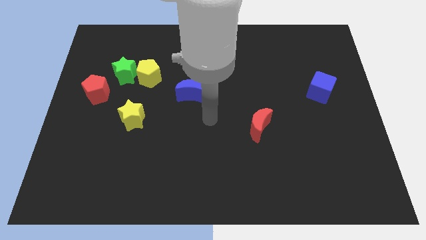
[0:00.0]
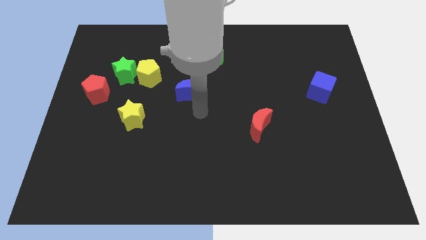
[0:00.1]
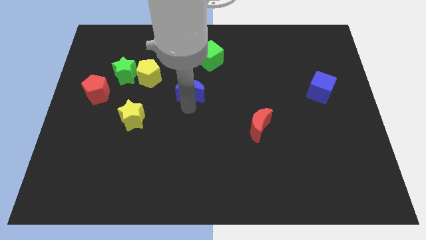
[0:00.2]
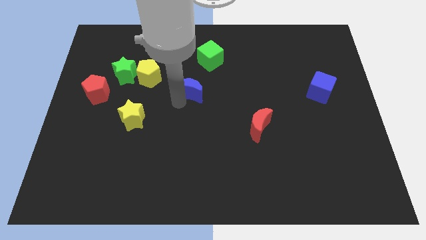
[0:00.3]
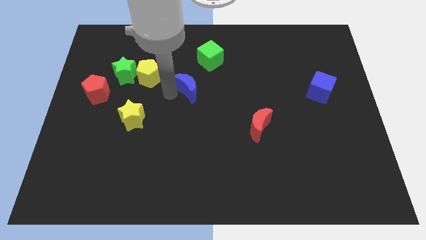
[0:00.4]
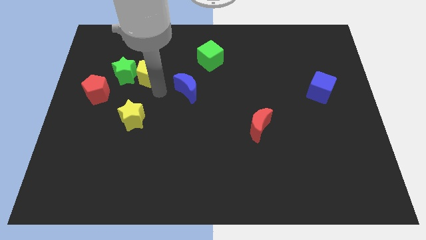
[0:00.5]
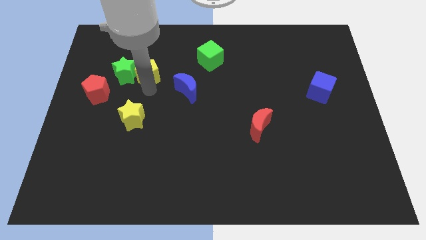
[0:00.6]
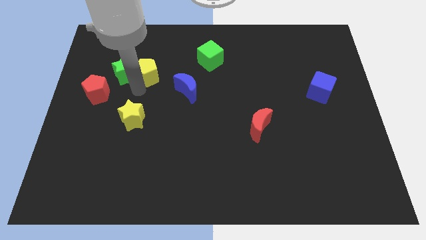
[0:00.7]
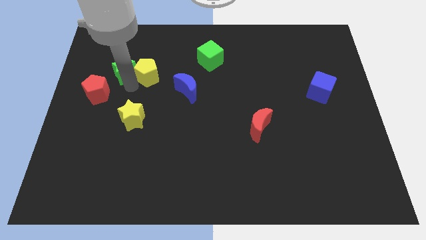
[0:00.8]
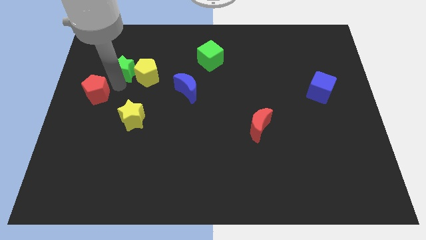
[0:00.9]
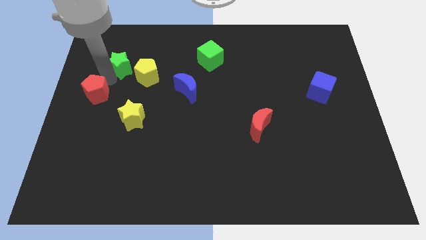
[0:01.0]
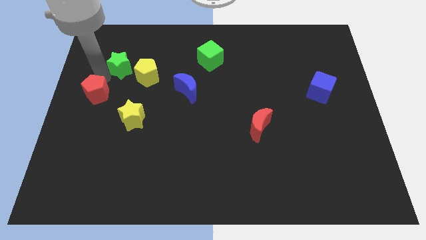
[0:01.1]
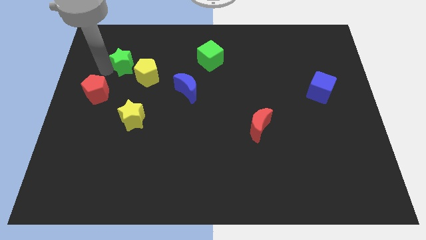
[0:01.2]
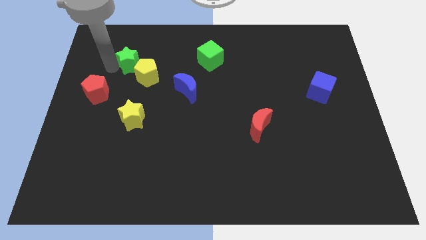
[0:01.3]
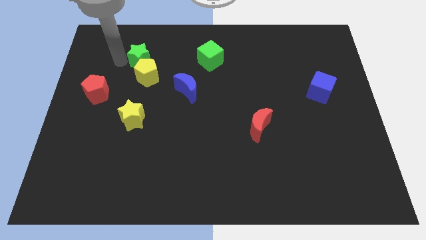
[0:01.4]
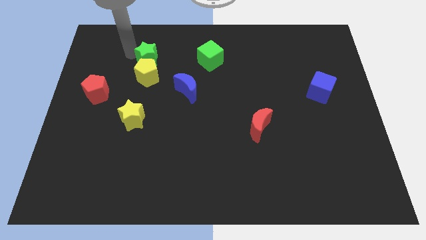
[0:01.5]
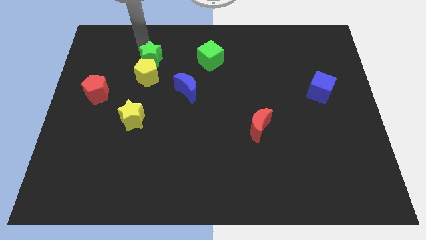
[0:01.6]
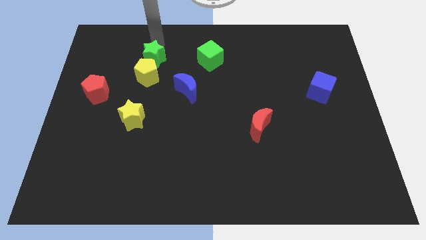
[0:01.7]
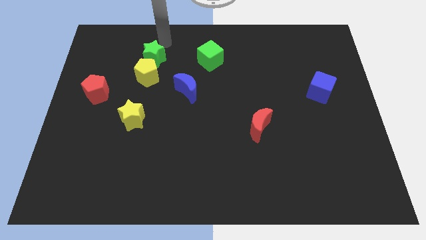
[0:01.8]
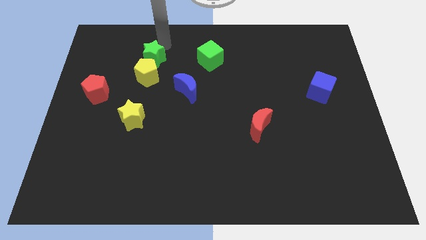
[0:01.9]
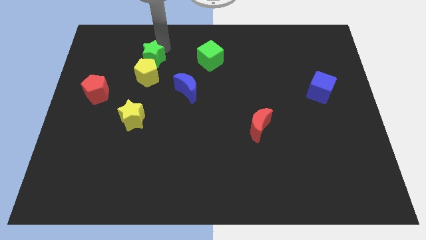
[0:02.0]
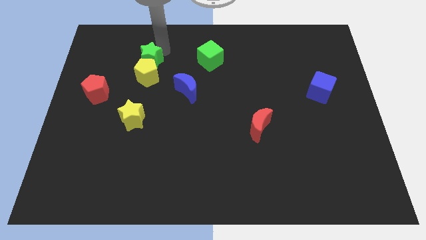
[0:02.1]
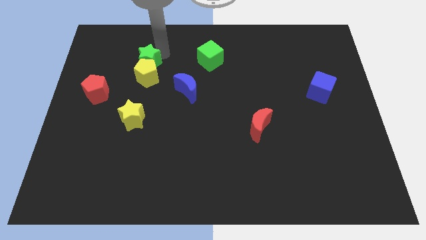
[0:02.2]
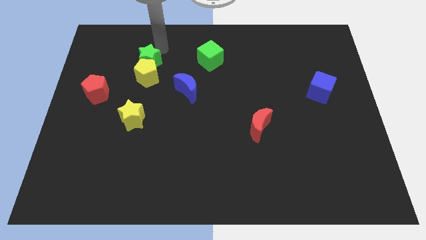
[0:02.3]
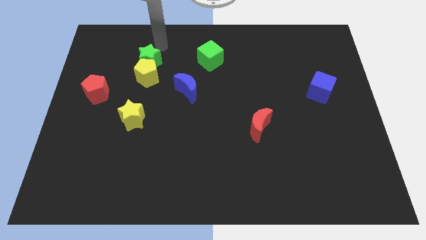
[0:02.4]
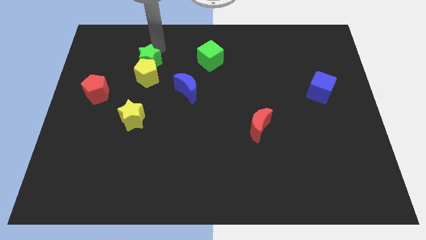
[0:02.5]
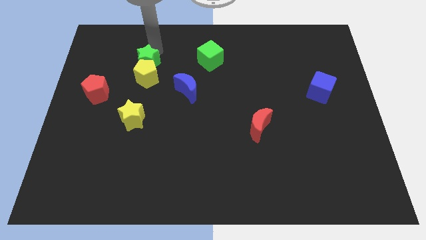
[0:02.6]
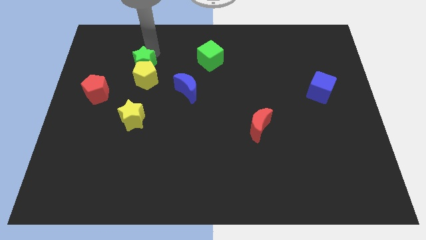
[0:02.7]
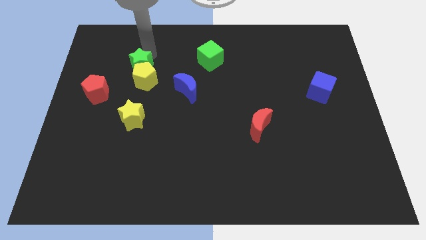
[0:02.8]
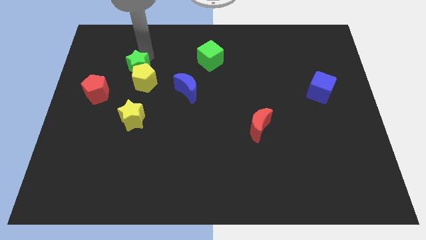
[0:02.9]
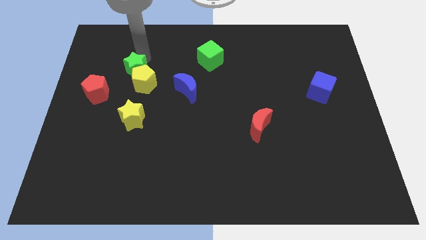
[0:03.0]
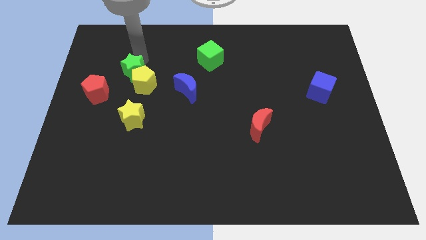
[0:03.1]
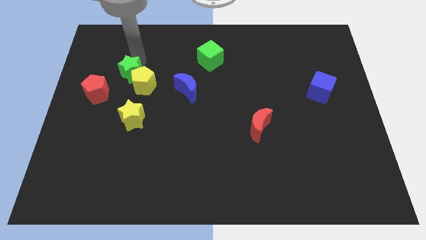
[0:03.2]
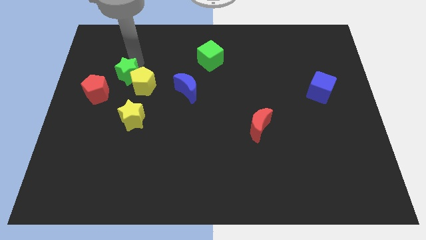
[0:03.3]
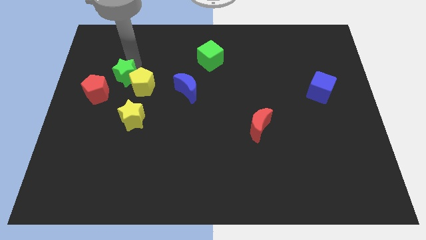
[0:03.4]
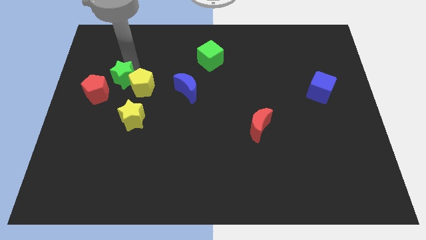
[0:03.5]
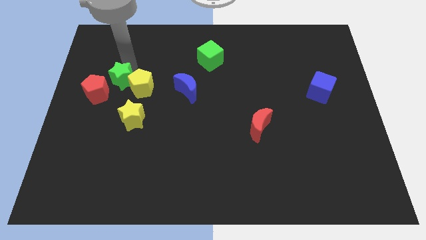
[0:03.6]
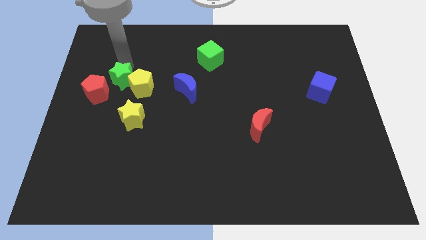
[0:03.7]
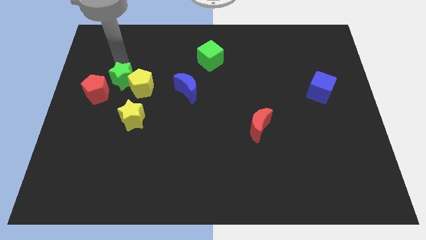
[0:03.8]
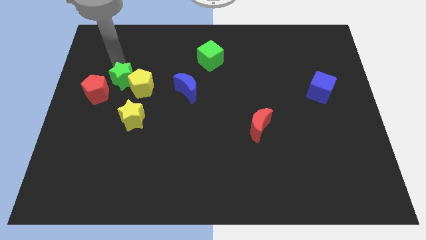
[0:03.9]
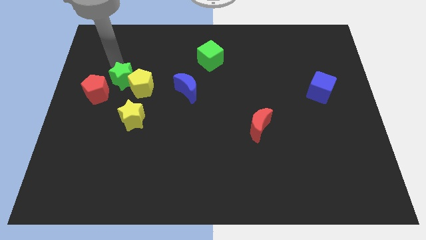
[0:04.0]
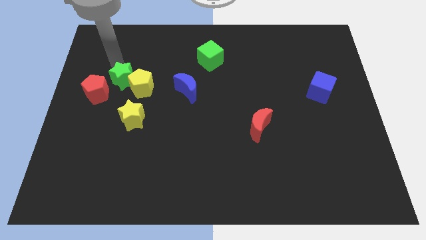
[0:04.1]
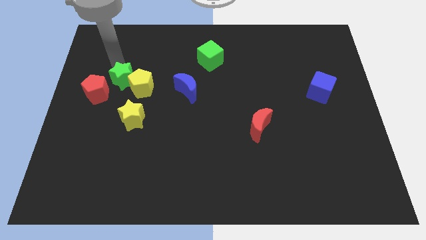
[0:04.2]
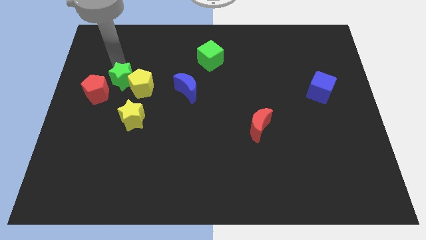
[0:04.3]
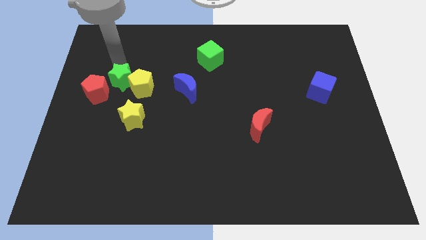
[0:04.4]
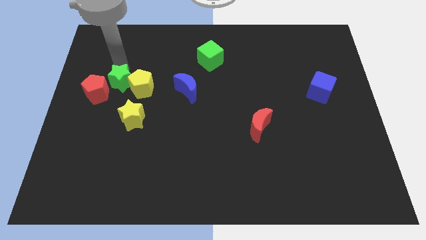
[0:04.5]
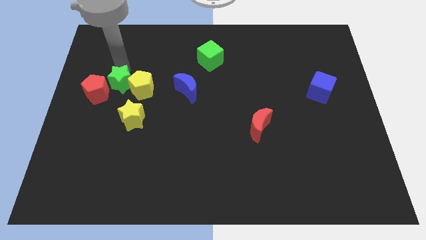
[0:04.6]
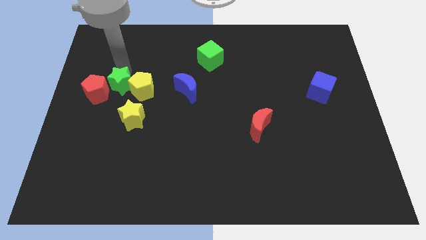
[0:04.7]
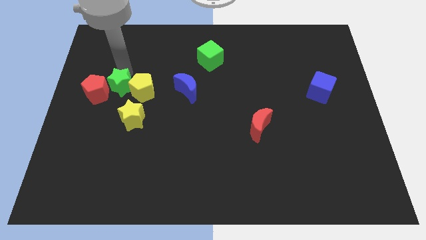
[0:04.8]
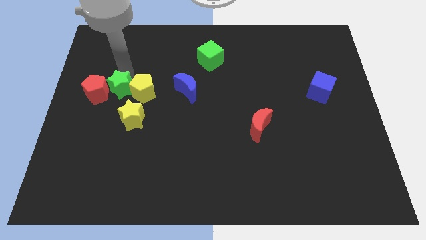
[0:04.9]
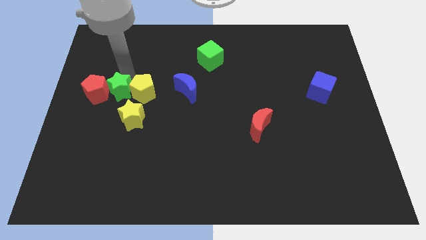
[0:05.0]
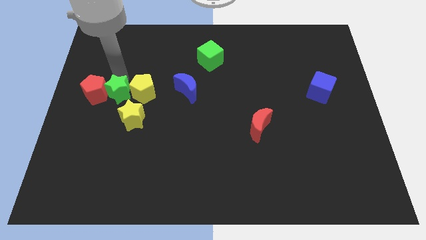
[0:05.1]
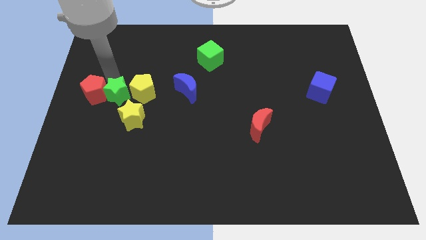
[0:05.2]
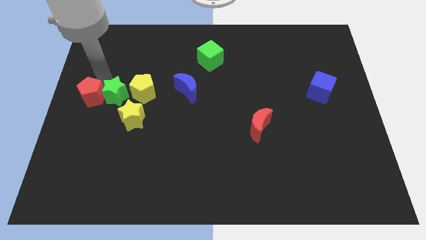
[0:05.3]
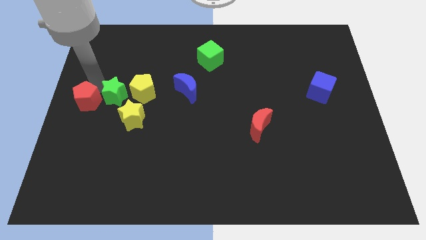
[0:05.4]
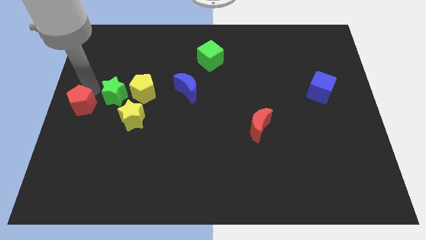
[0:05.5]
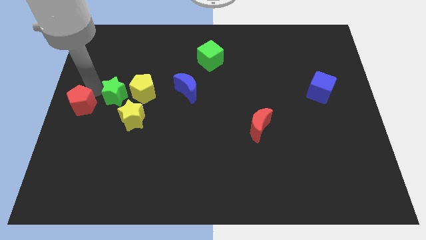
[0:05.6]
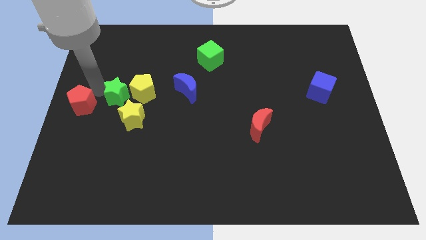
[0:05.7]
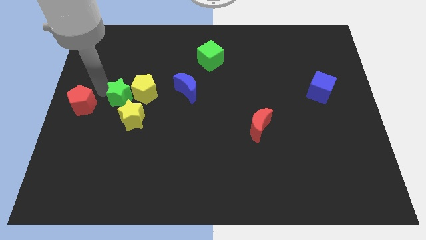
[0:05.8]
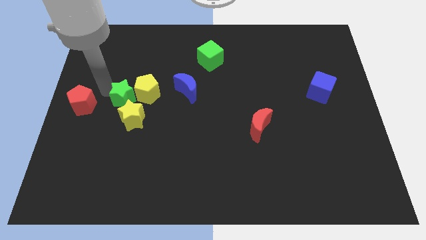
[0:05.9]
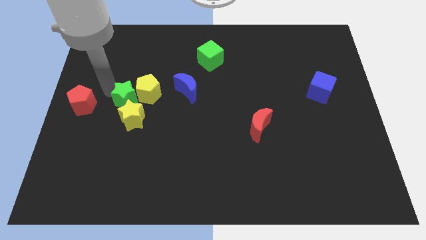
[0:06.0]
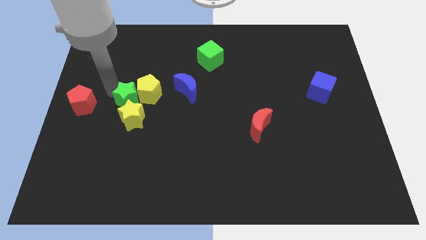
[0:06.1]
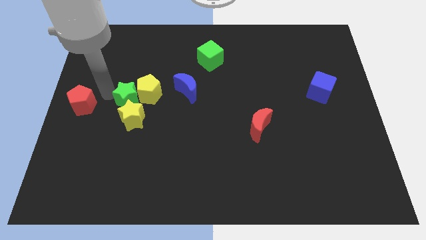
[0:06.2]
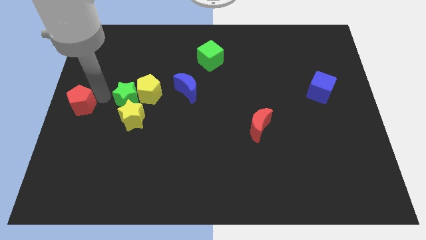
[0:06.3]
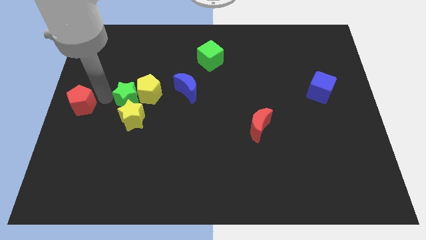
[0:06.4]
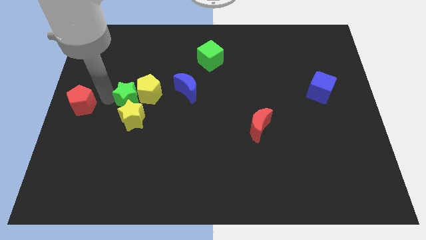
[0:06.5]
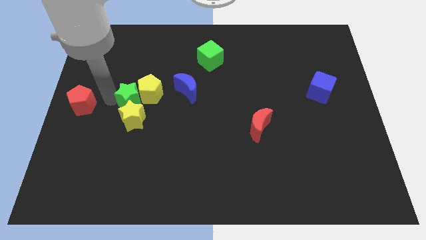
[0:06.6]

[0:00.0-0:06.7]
push the green star a little bit diagonally down and right

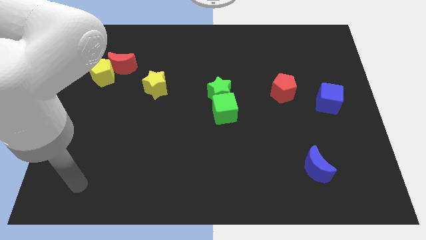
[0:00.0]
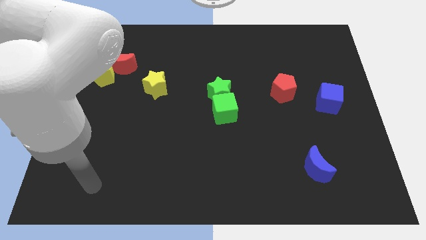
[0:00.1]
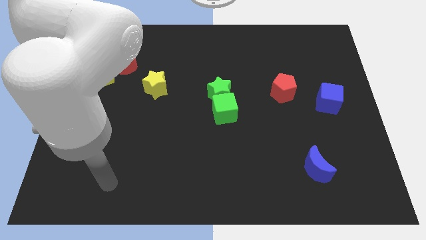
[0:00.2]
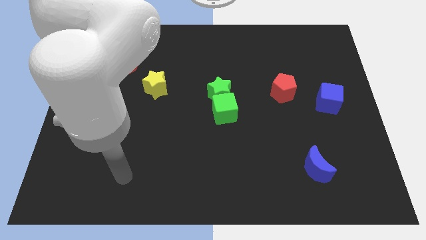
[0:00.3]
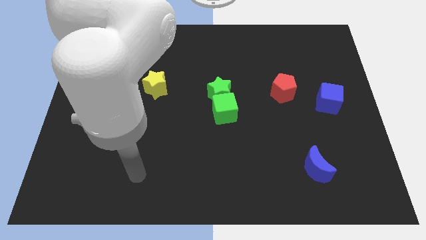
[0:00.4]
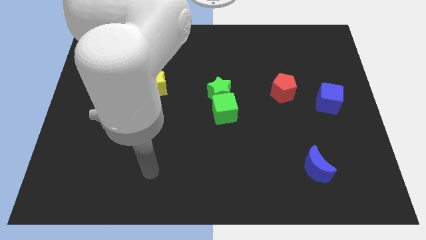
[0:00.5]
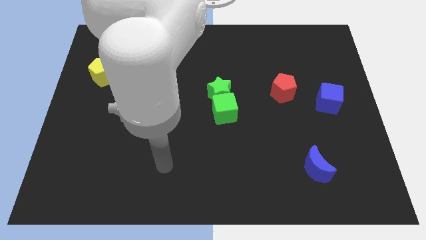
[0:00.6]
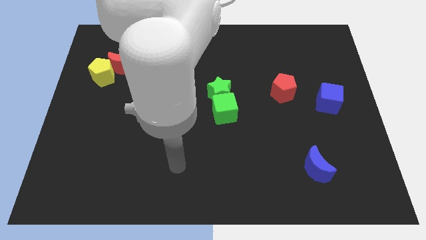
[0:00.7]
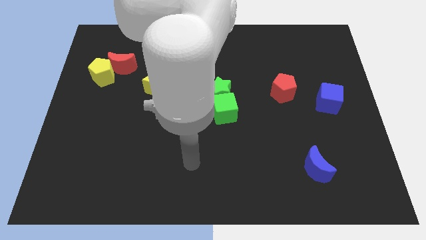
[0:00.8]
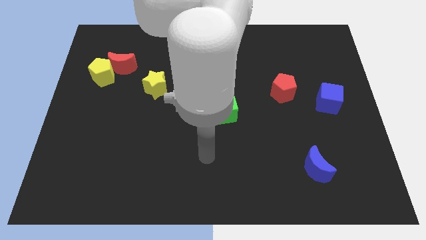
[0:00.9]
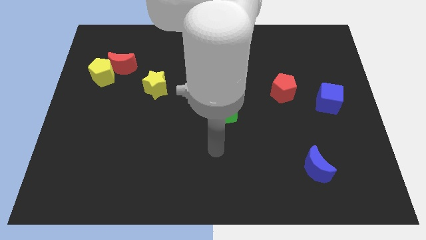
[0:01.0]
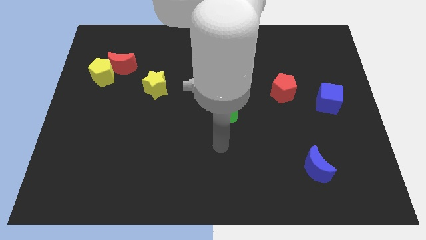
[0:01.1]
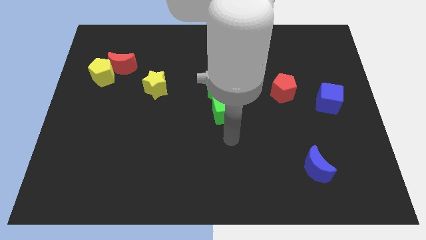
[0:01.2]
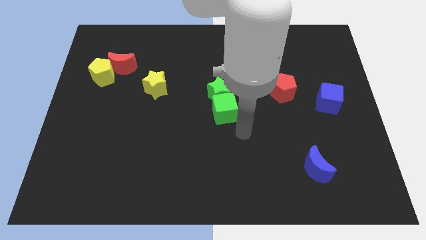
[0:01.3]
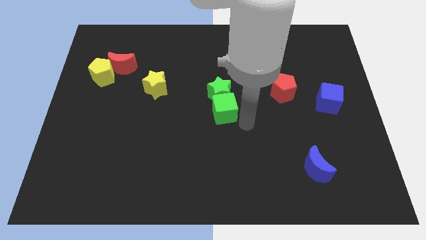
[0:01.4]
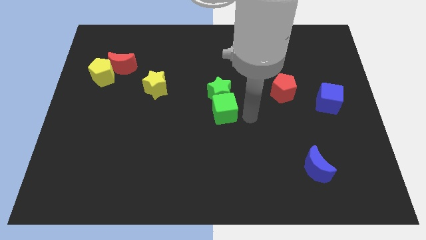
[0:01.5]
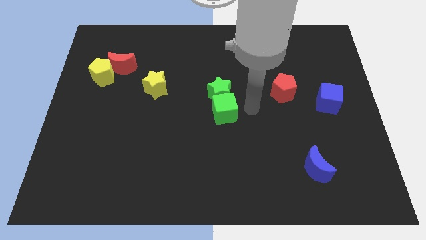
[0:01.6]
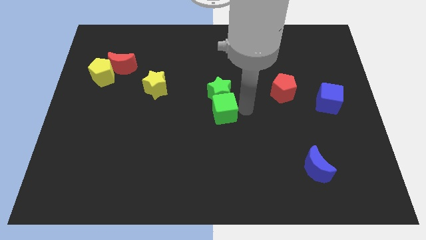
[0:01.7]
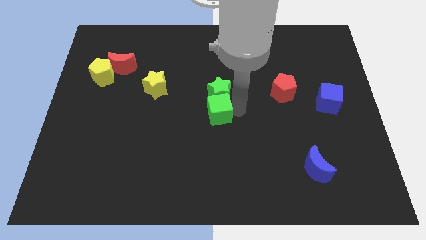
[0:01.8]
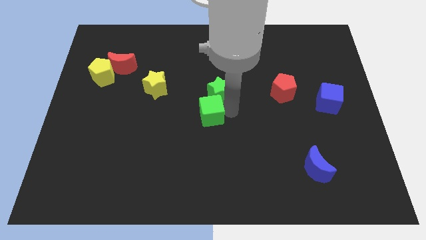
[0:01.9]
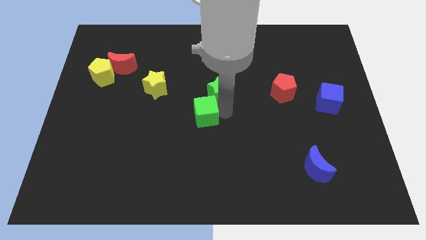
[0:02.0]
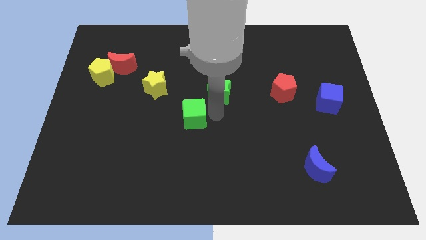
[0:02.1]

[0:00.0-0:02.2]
slightly slide the green cube left
